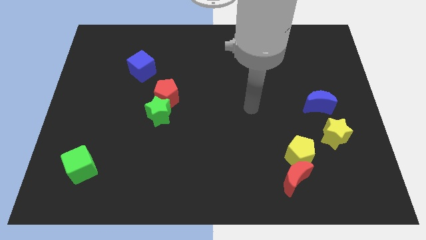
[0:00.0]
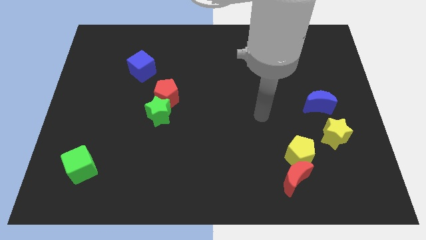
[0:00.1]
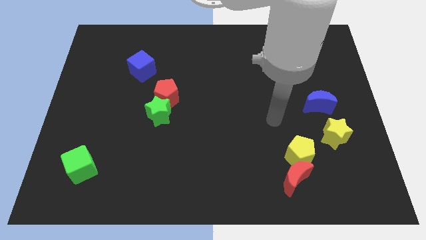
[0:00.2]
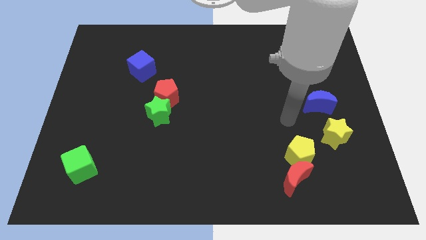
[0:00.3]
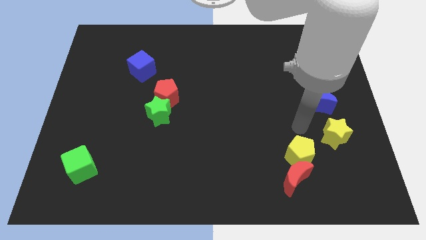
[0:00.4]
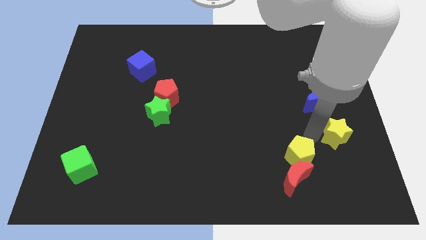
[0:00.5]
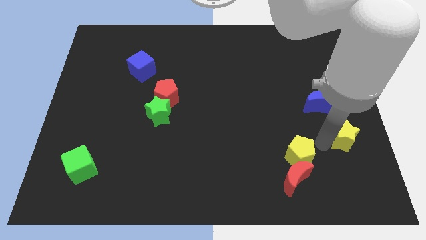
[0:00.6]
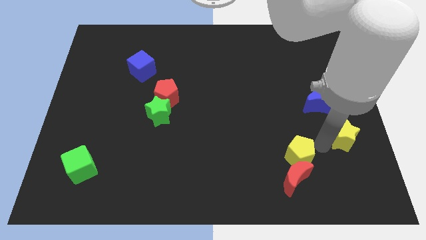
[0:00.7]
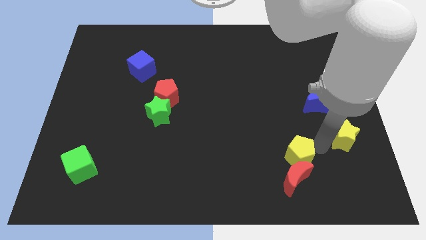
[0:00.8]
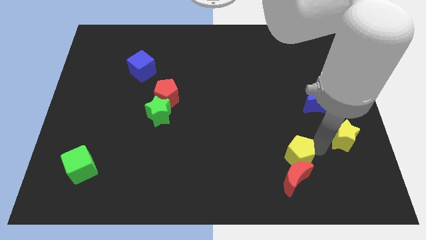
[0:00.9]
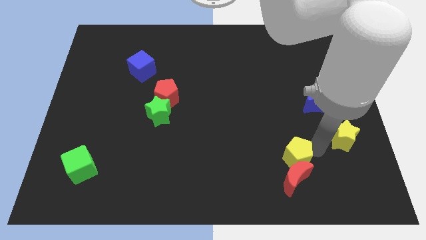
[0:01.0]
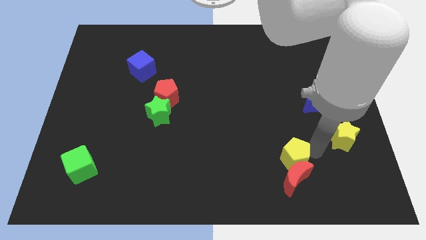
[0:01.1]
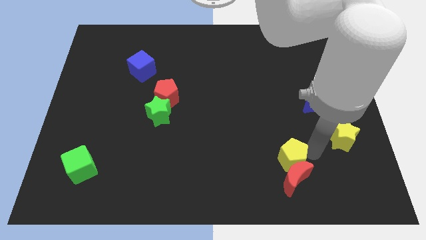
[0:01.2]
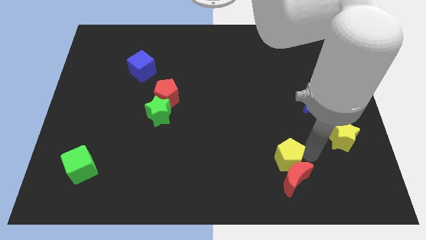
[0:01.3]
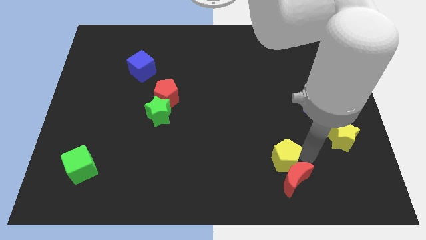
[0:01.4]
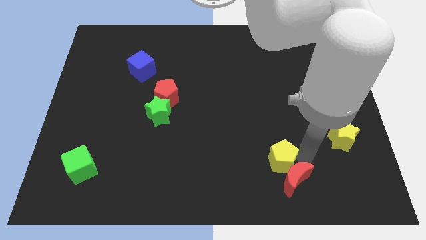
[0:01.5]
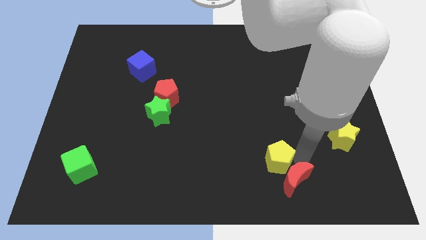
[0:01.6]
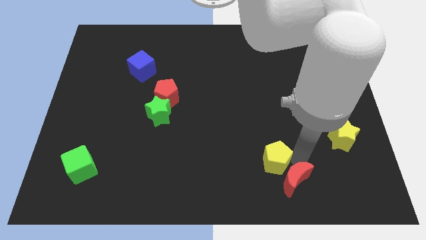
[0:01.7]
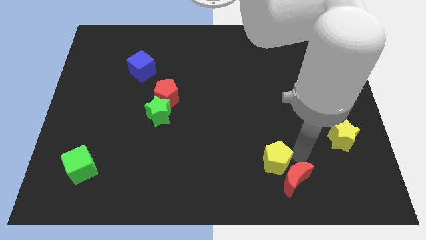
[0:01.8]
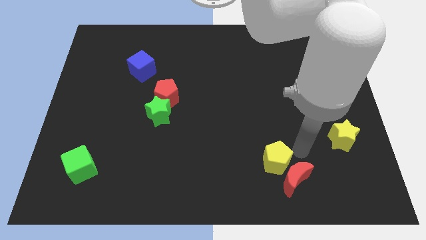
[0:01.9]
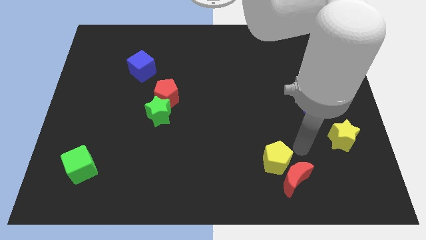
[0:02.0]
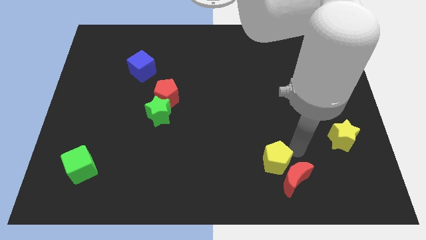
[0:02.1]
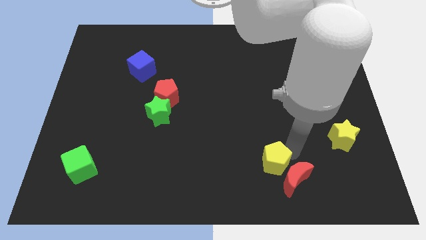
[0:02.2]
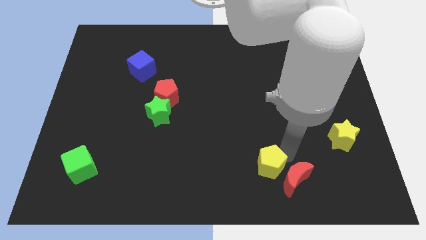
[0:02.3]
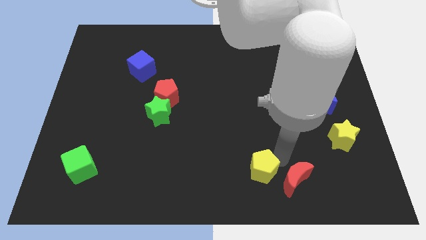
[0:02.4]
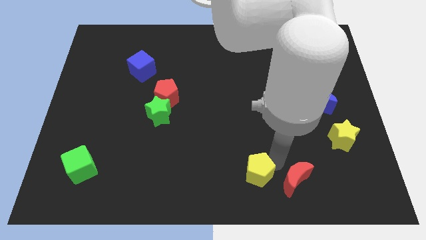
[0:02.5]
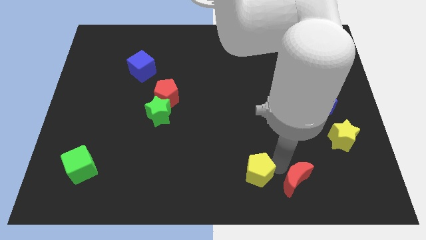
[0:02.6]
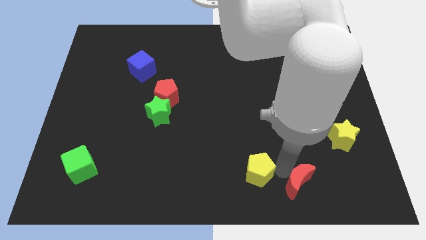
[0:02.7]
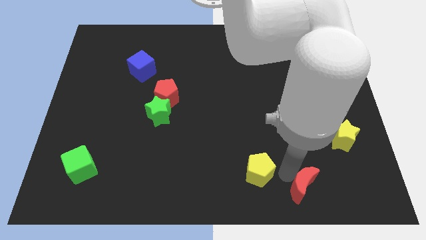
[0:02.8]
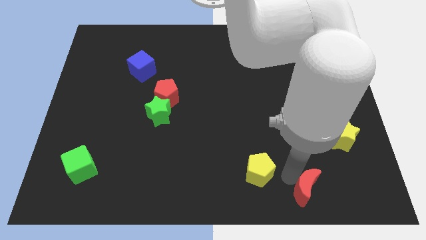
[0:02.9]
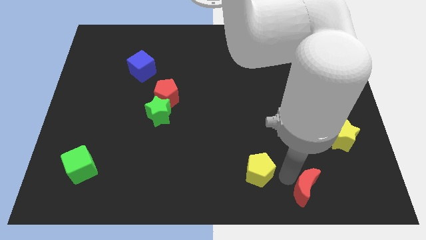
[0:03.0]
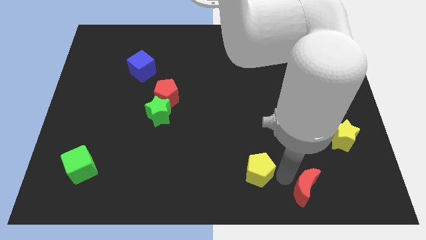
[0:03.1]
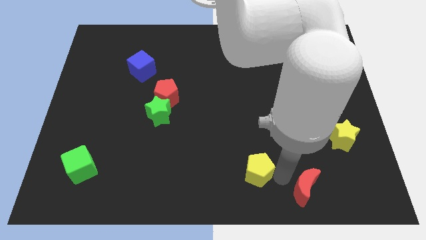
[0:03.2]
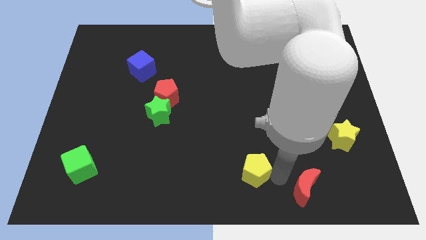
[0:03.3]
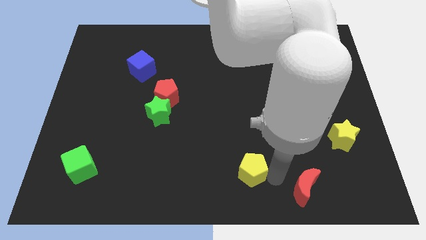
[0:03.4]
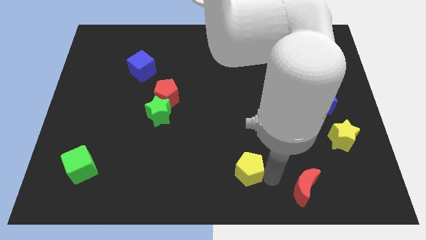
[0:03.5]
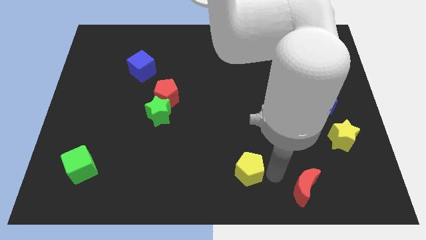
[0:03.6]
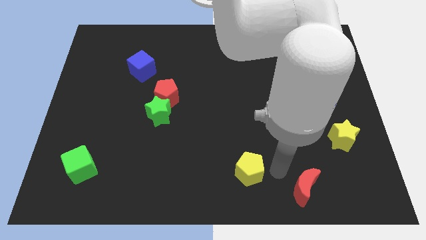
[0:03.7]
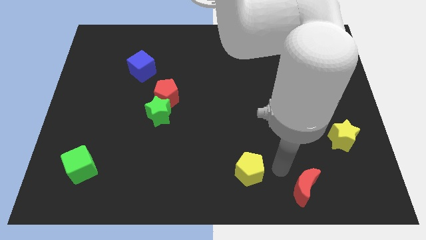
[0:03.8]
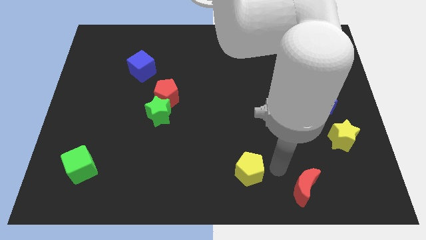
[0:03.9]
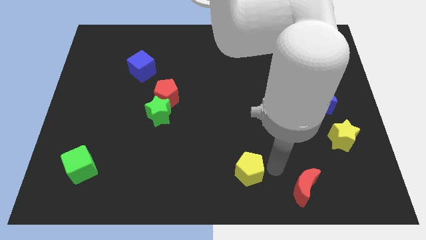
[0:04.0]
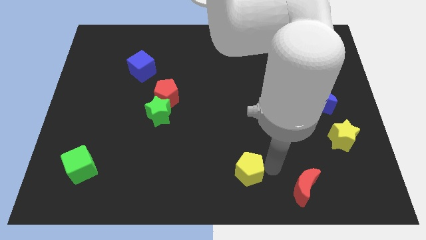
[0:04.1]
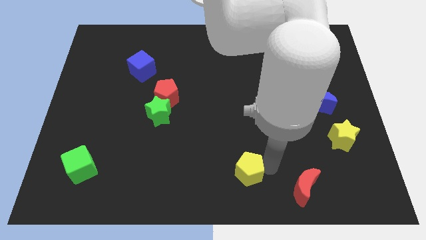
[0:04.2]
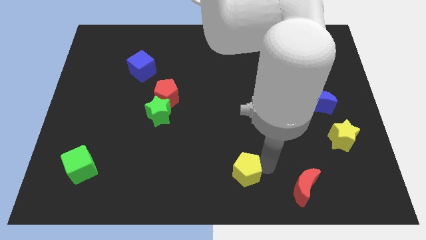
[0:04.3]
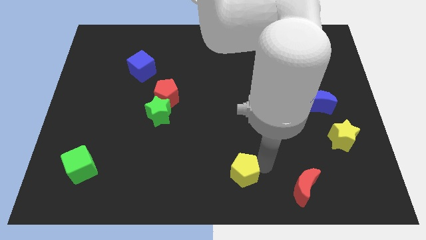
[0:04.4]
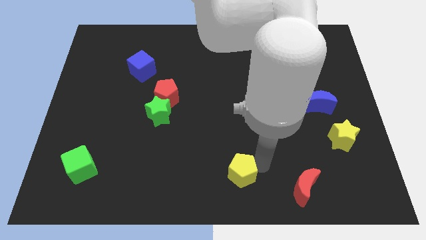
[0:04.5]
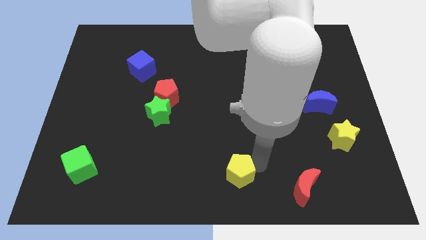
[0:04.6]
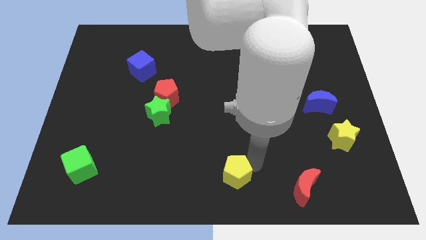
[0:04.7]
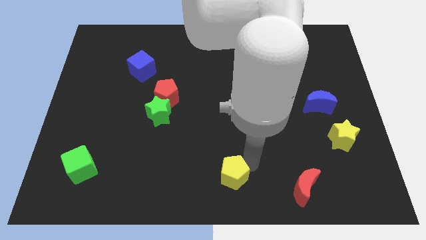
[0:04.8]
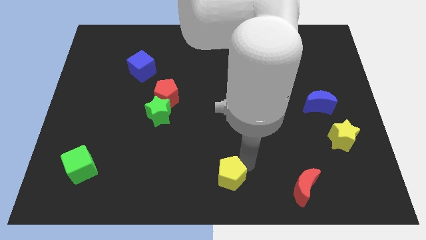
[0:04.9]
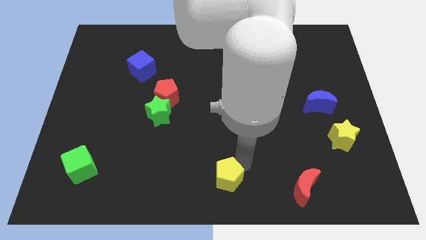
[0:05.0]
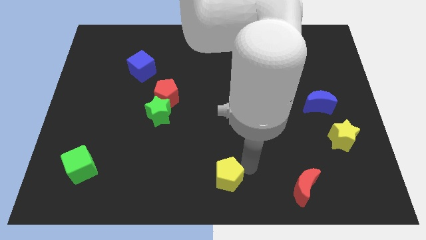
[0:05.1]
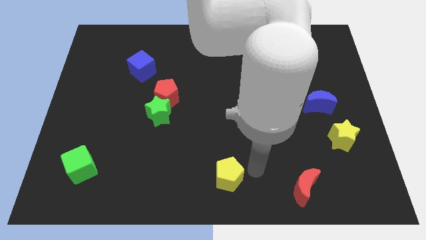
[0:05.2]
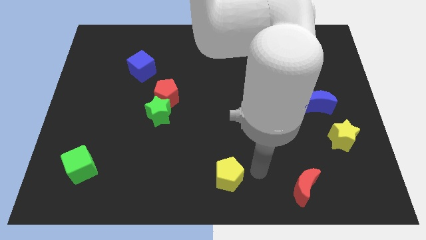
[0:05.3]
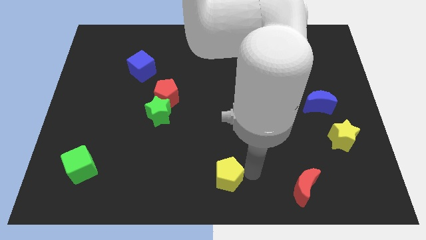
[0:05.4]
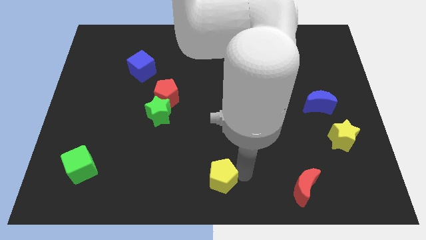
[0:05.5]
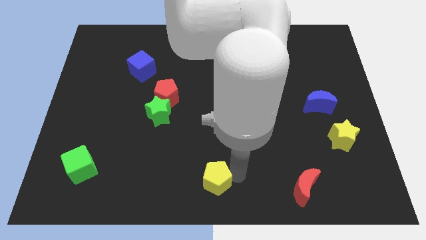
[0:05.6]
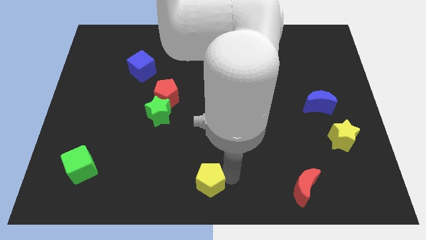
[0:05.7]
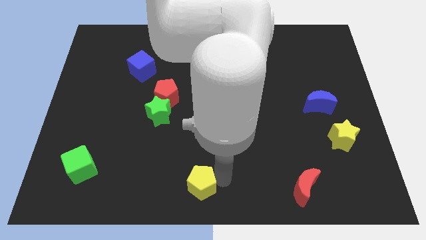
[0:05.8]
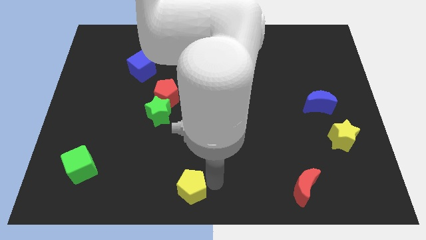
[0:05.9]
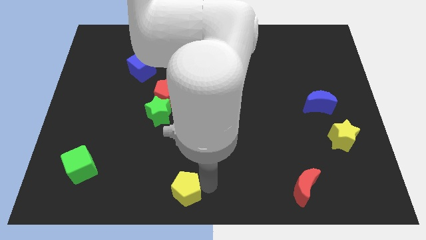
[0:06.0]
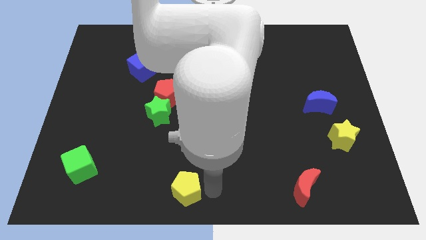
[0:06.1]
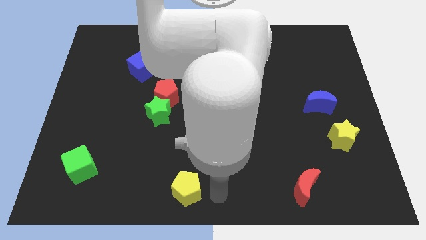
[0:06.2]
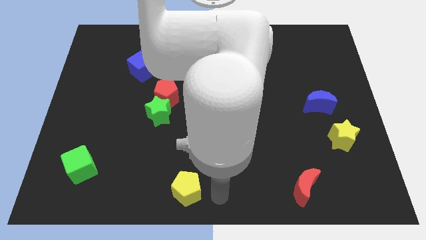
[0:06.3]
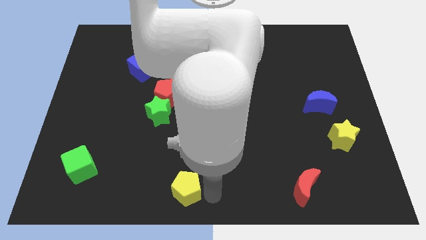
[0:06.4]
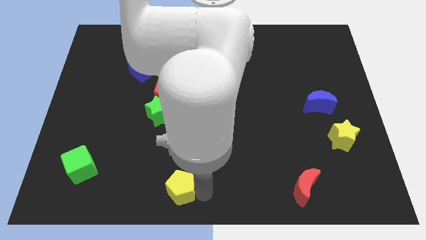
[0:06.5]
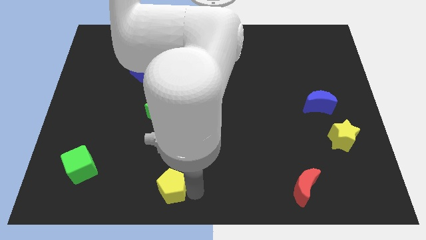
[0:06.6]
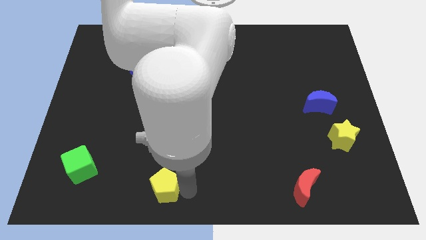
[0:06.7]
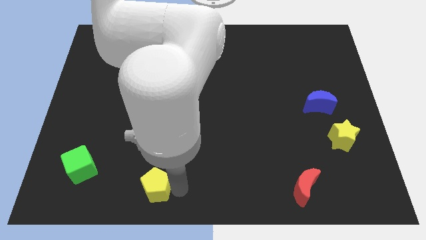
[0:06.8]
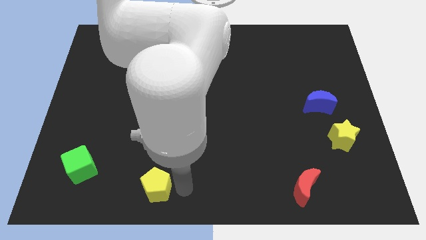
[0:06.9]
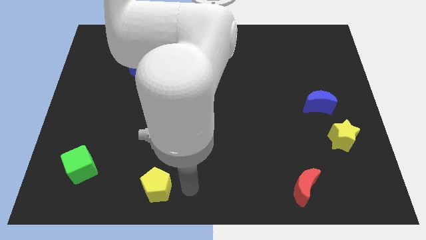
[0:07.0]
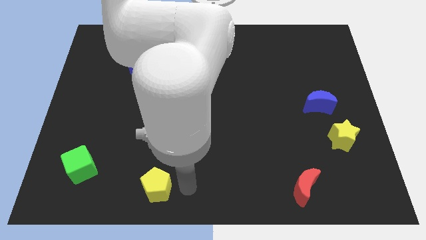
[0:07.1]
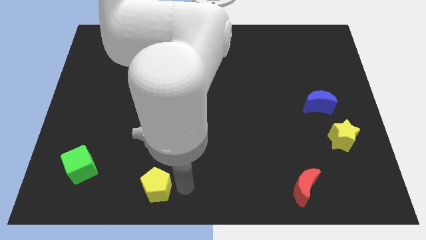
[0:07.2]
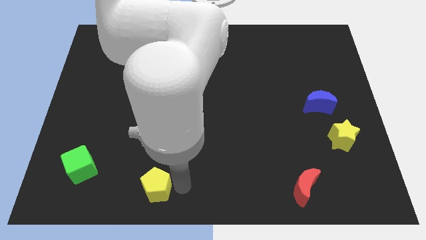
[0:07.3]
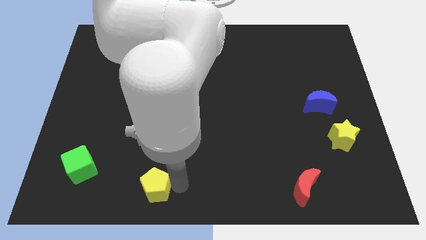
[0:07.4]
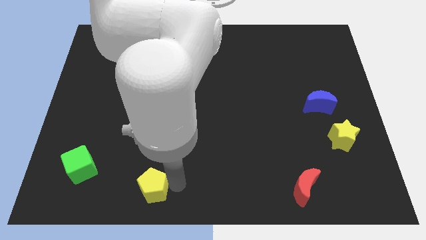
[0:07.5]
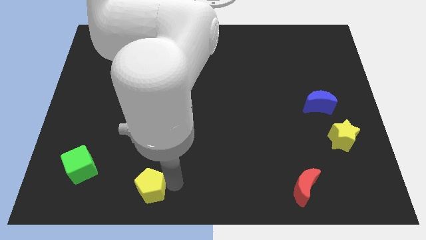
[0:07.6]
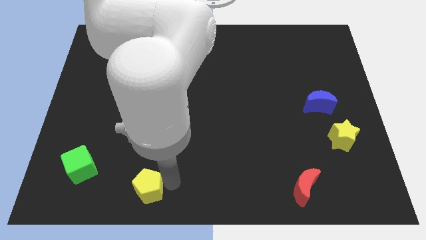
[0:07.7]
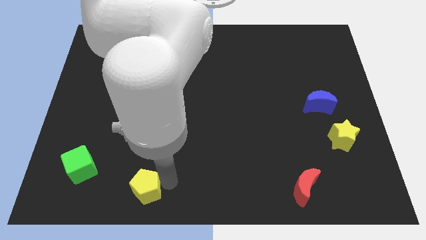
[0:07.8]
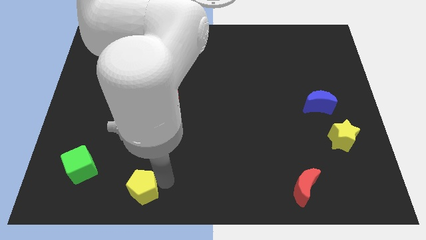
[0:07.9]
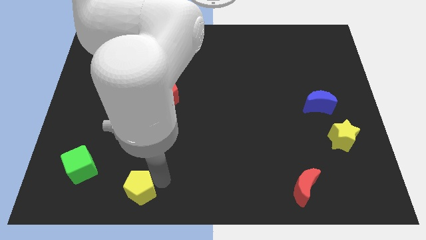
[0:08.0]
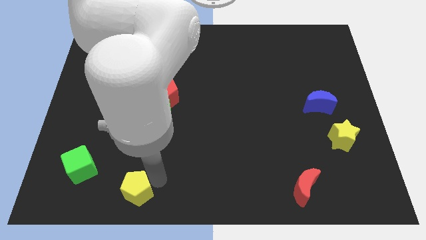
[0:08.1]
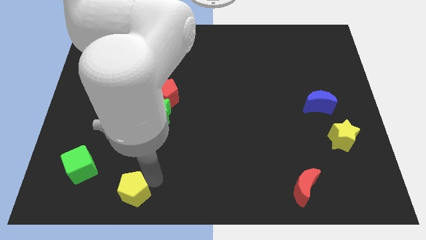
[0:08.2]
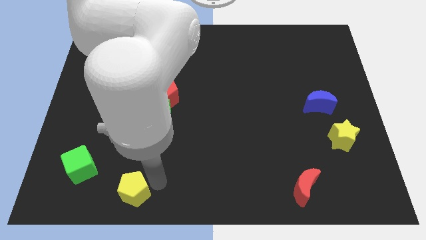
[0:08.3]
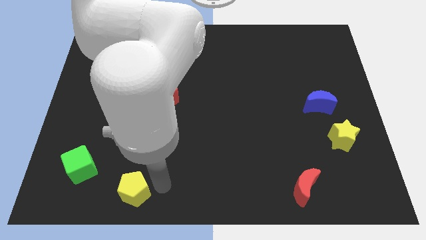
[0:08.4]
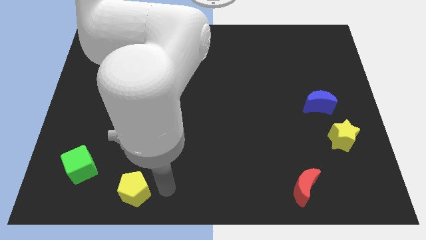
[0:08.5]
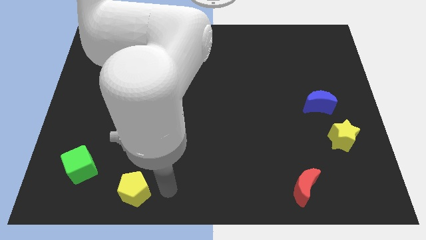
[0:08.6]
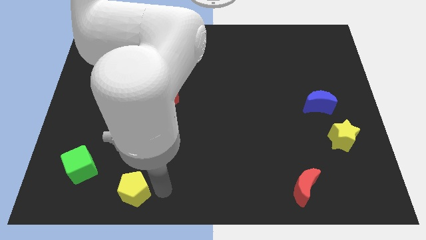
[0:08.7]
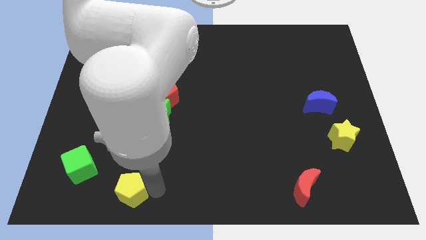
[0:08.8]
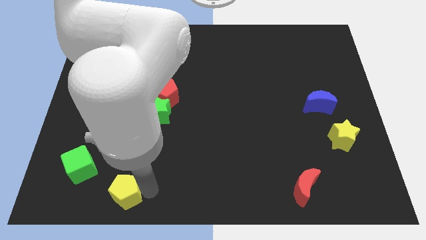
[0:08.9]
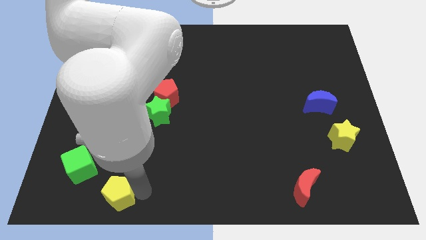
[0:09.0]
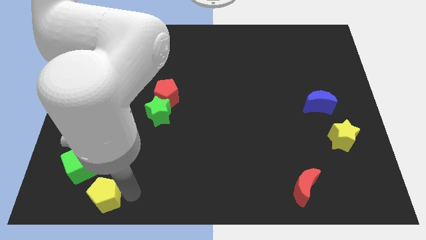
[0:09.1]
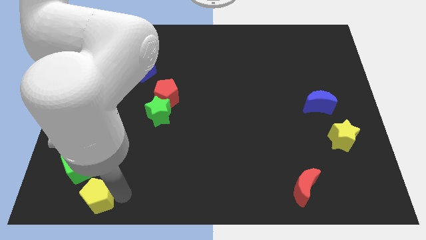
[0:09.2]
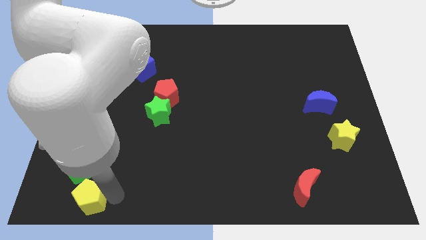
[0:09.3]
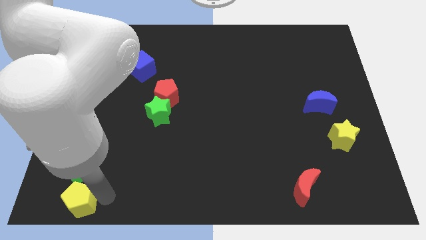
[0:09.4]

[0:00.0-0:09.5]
slide the yellow pentagon to the bottom left corner
